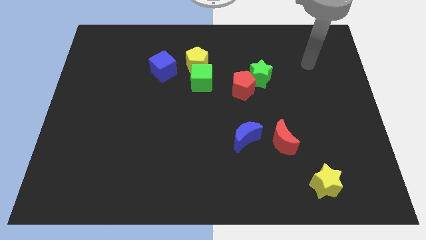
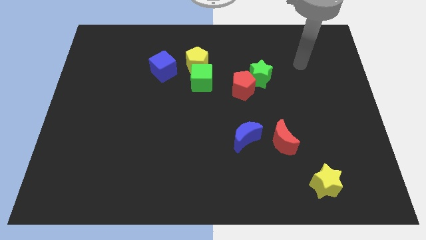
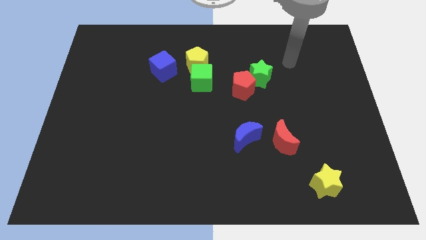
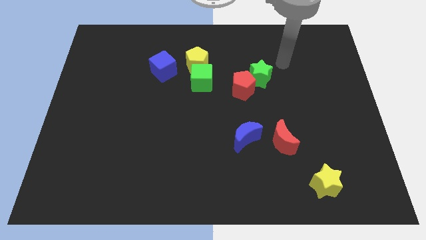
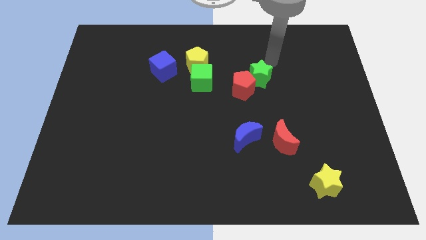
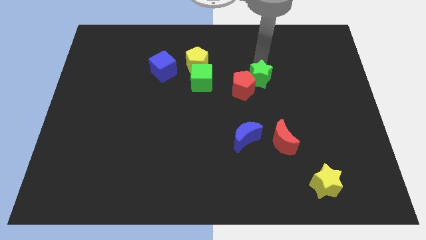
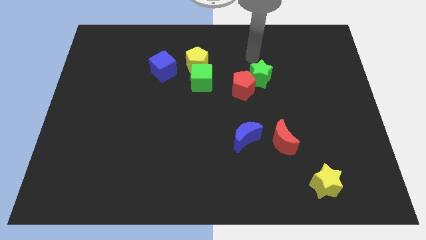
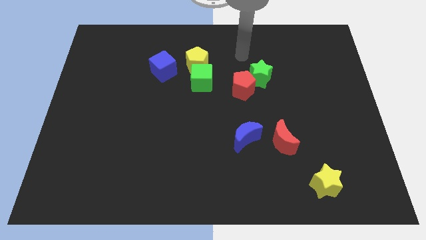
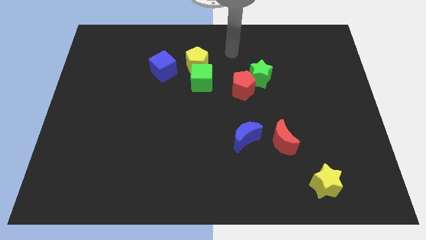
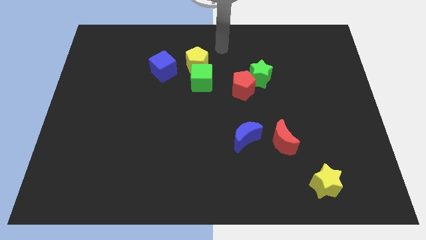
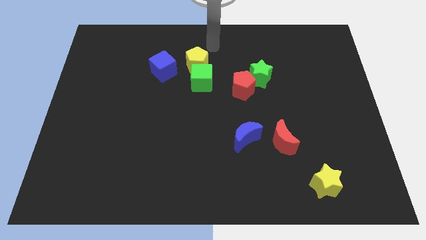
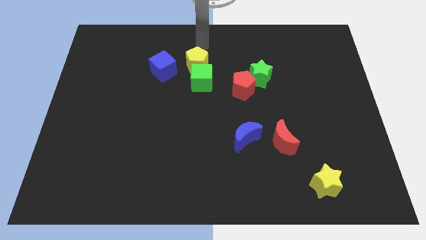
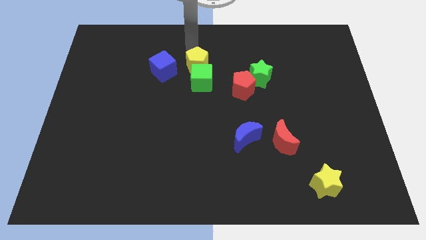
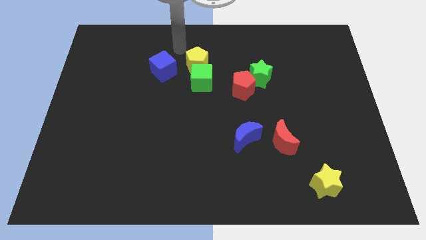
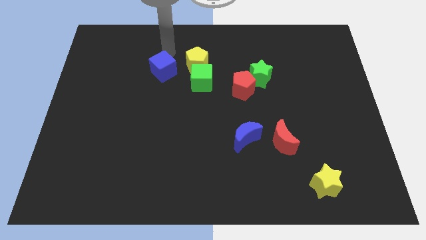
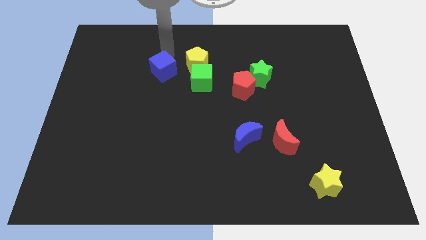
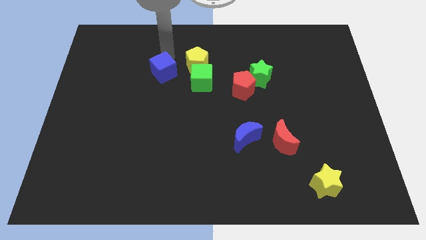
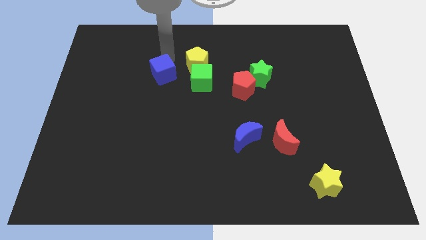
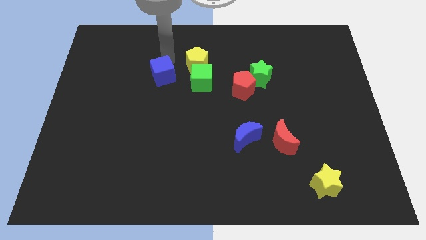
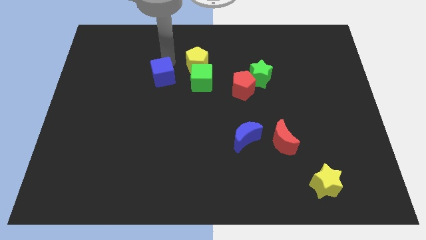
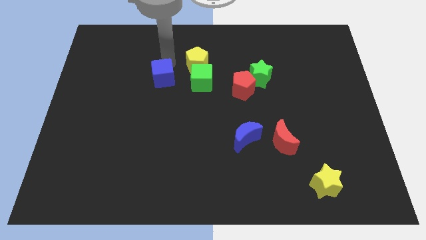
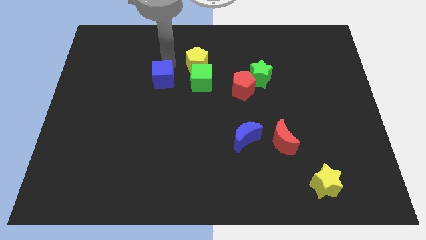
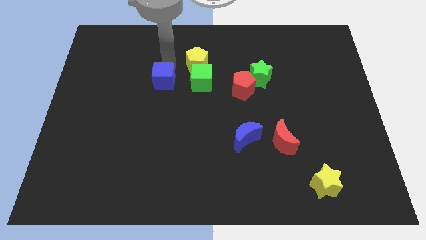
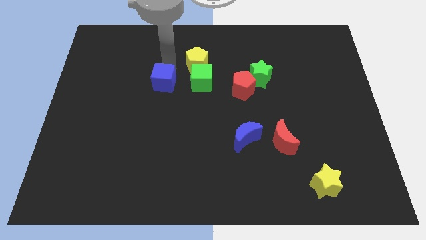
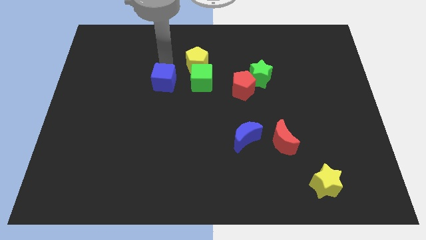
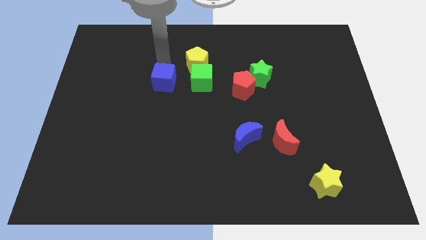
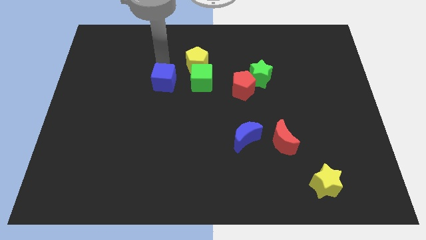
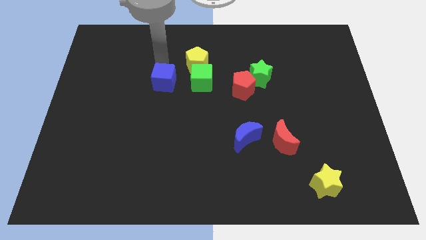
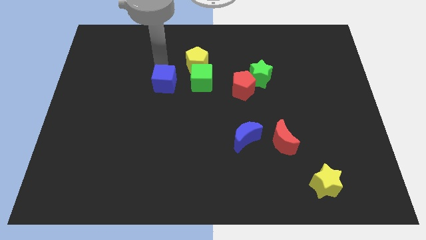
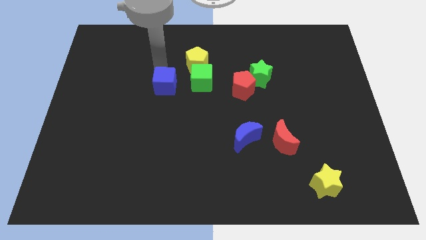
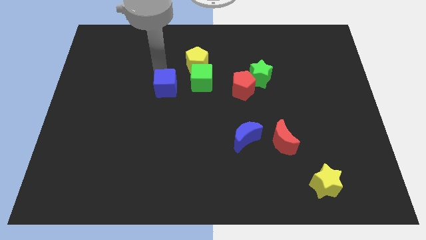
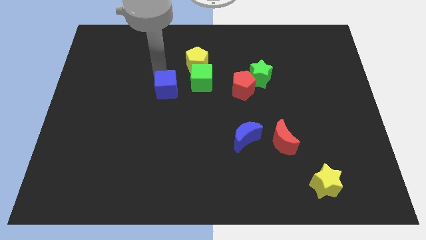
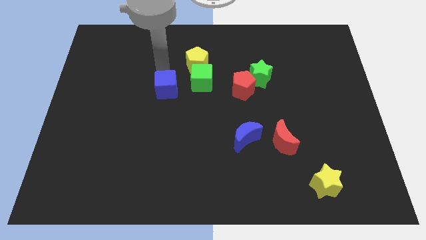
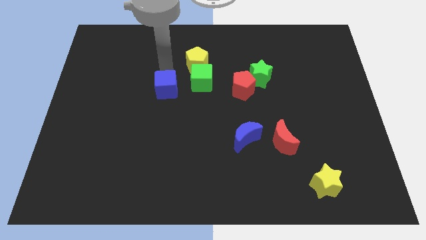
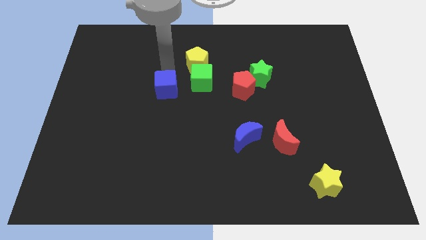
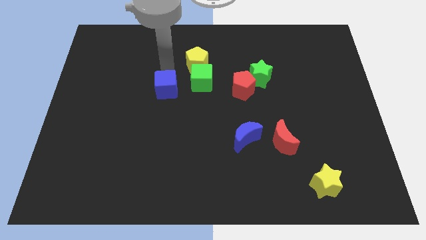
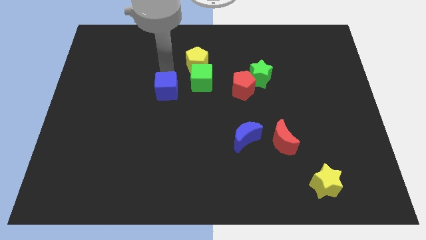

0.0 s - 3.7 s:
slide the blue cube downwards somewhat

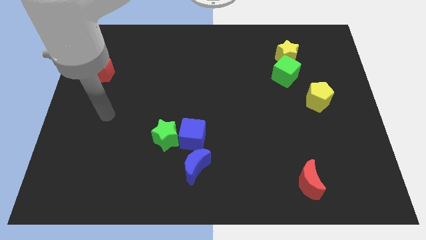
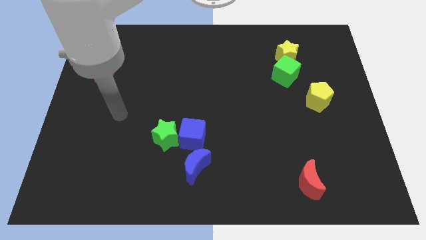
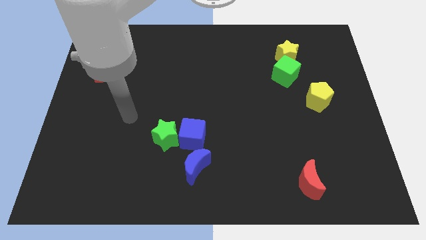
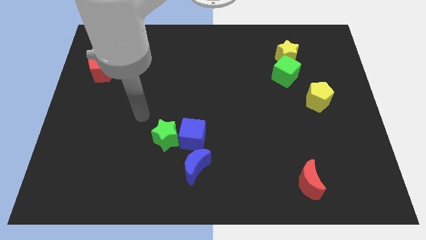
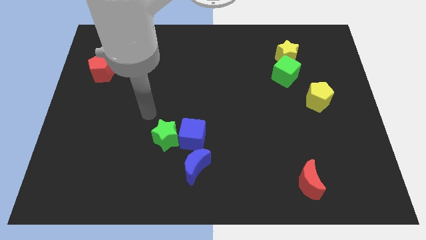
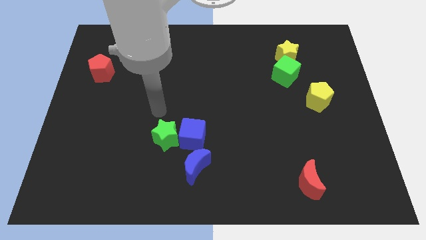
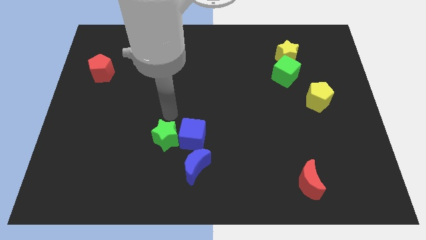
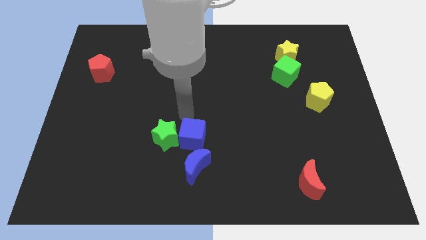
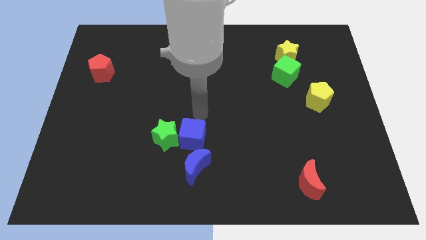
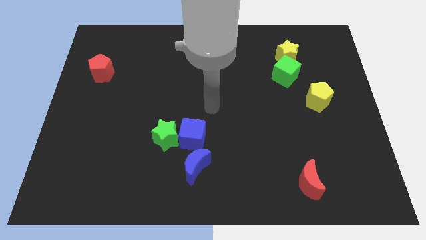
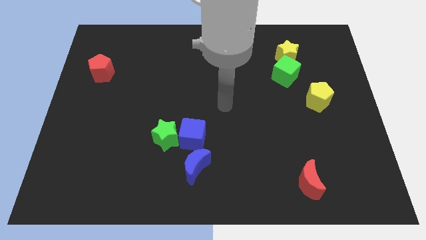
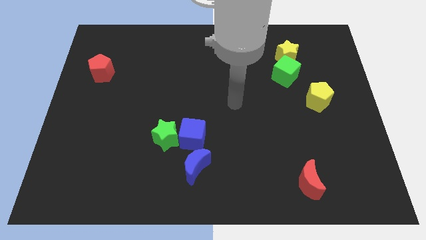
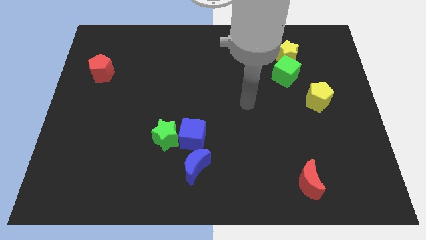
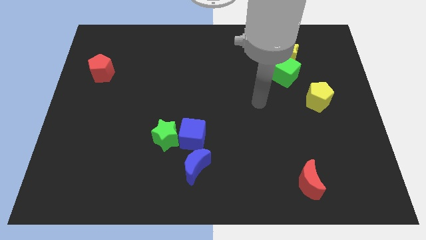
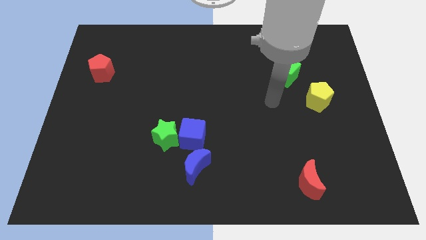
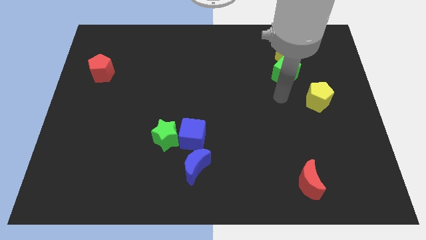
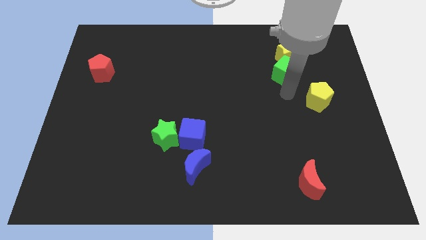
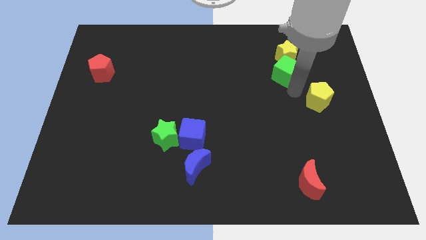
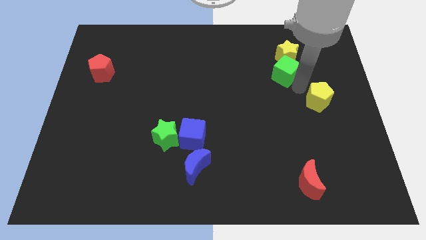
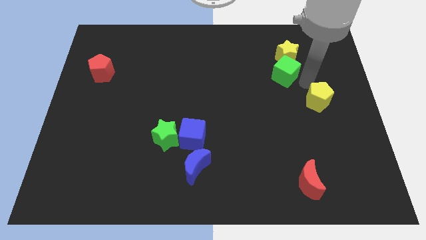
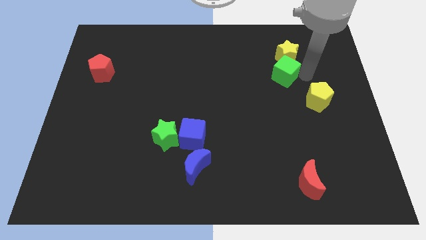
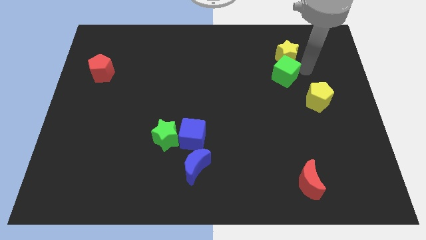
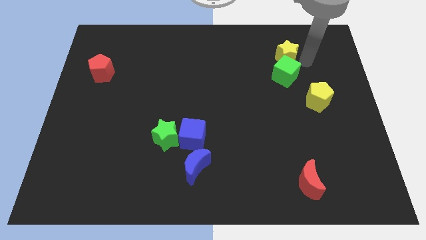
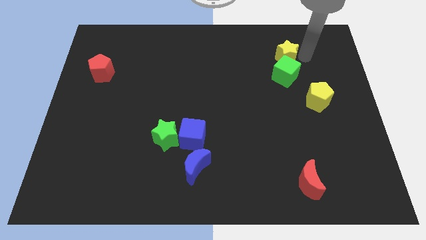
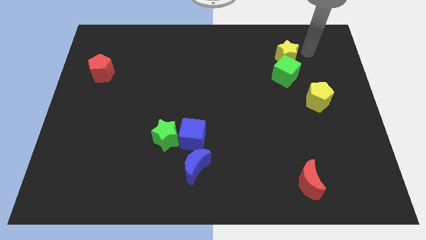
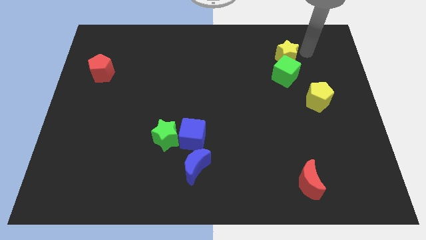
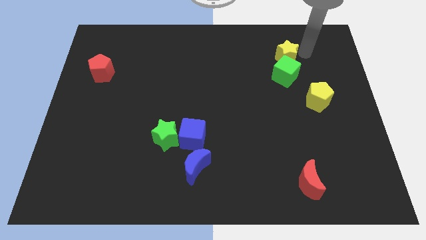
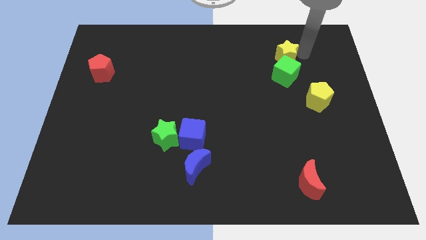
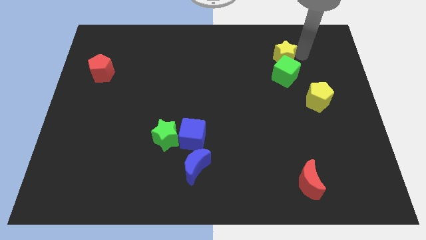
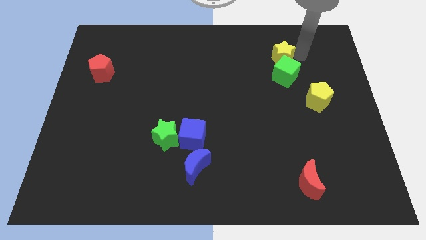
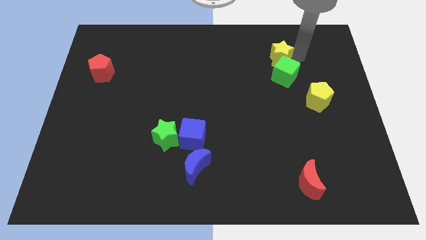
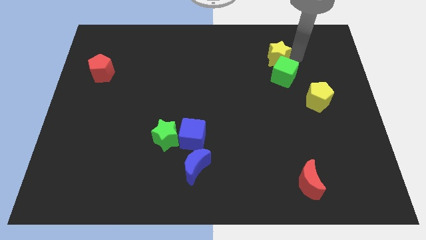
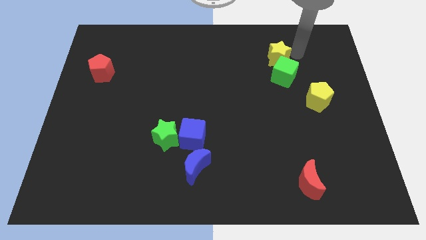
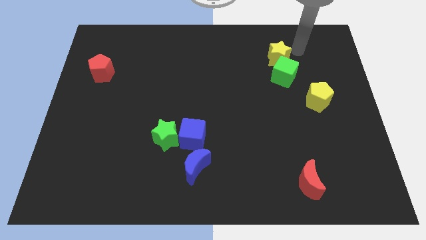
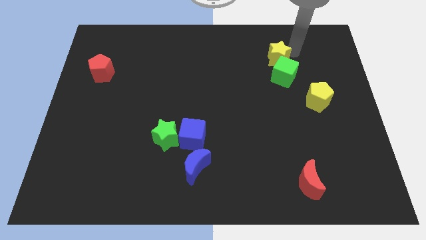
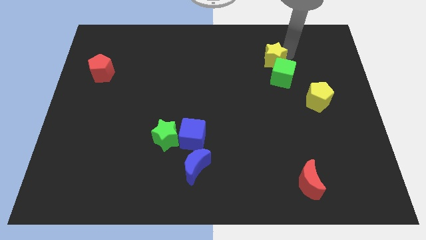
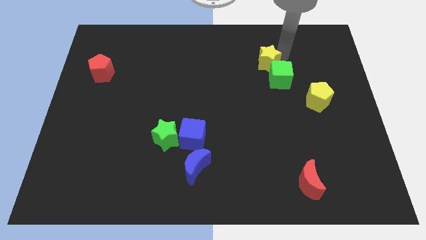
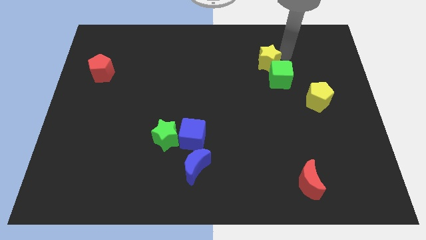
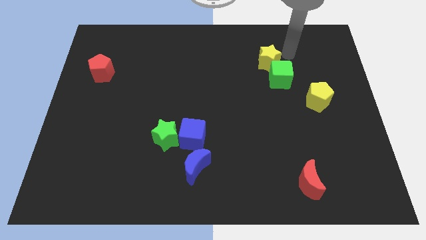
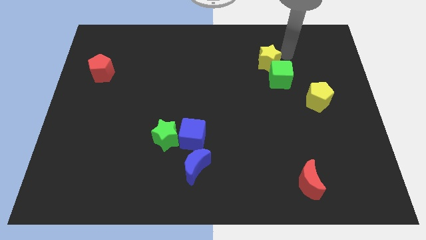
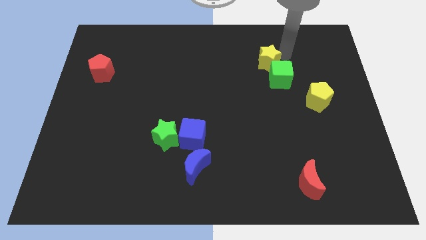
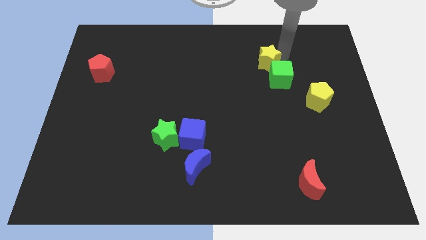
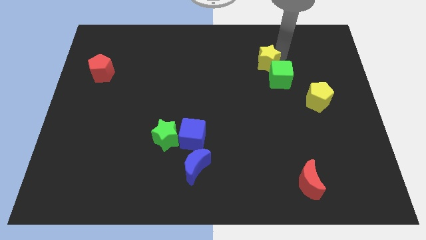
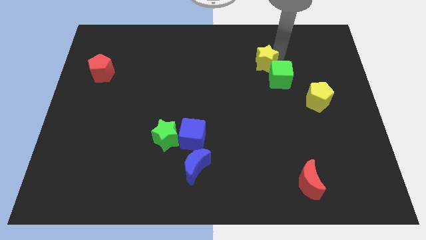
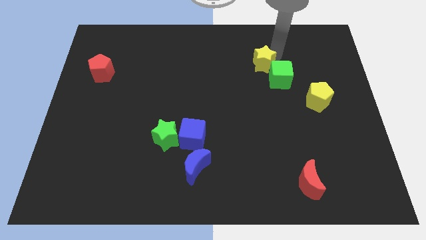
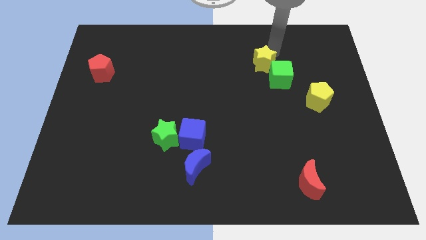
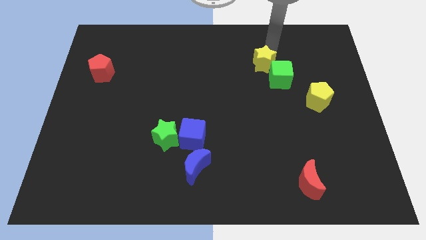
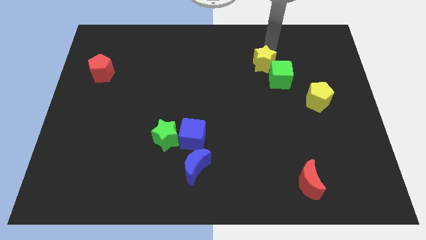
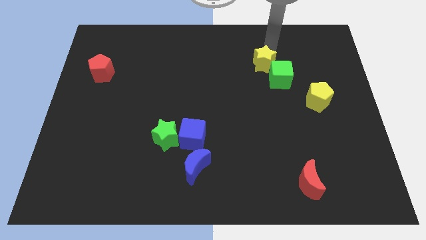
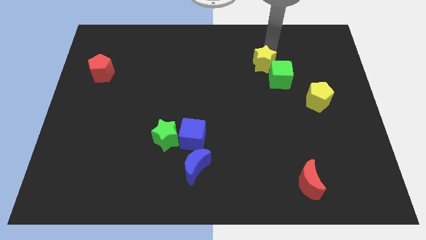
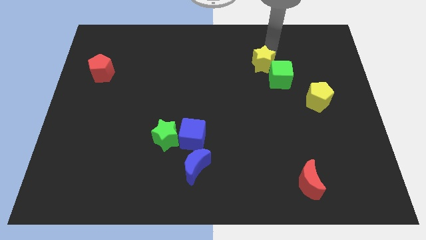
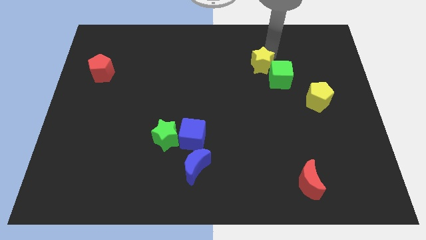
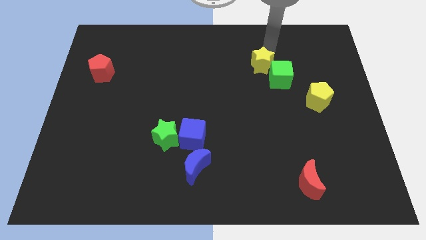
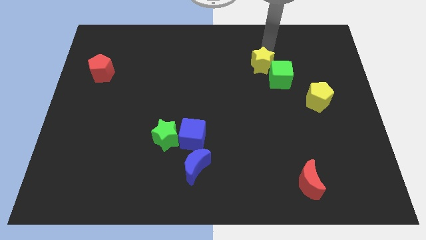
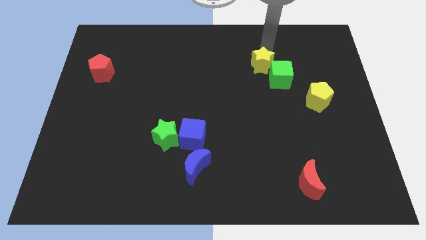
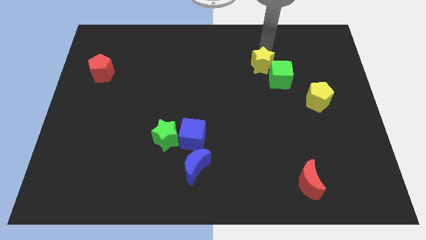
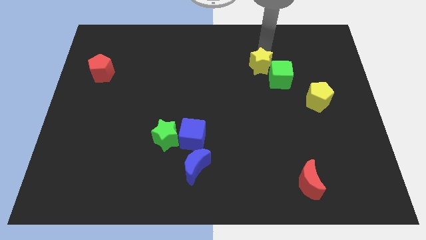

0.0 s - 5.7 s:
move the yellow star slightly diagonally down and to the left
